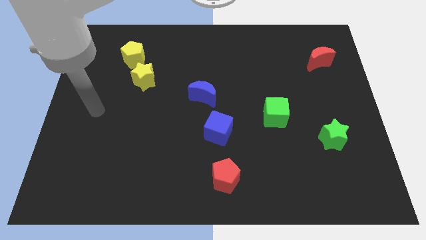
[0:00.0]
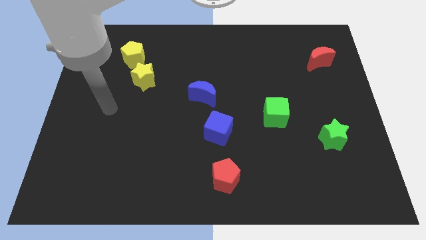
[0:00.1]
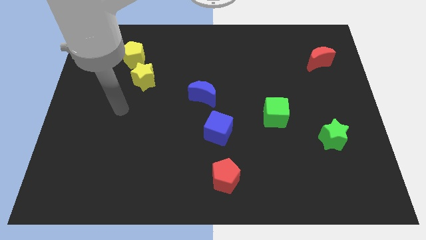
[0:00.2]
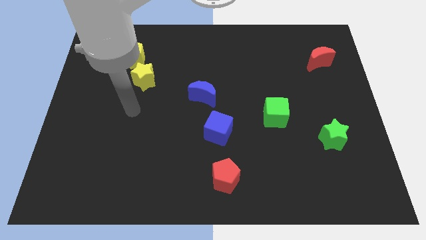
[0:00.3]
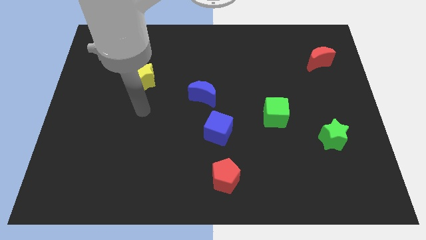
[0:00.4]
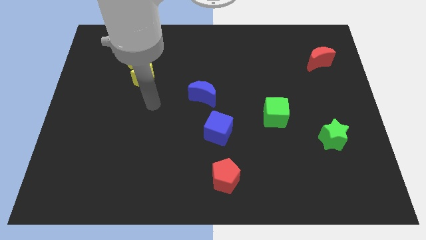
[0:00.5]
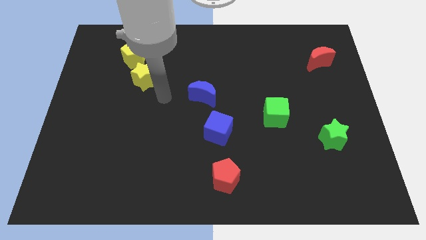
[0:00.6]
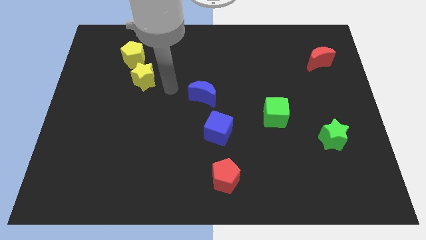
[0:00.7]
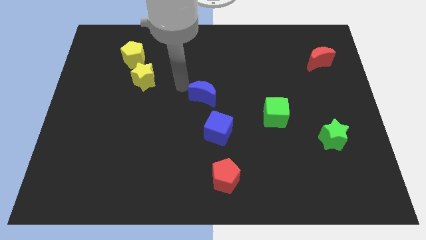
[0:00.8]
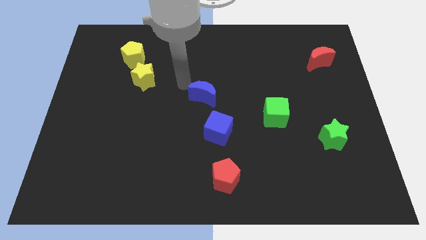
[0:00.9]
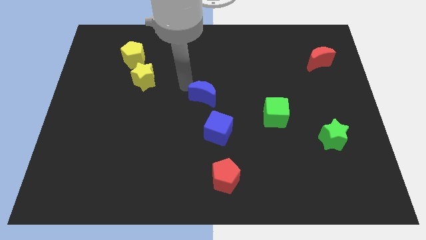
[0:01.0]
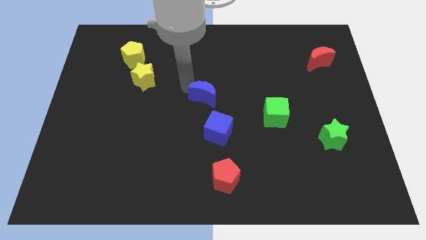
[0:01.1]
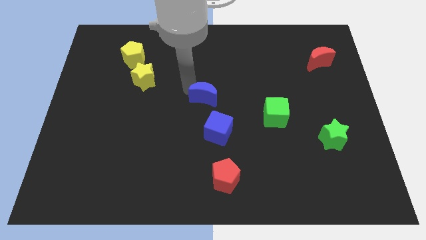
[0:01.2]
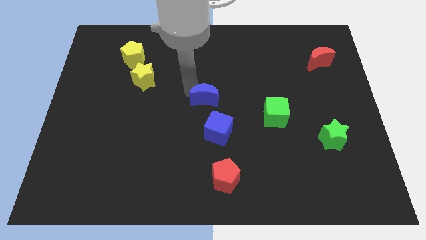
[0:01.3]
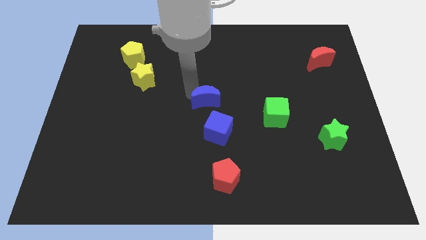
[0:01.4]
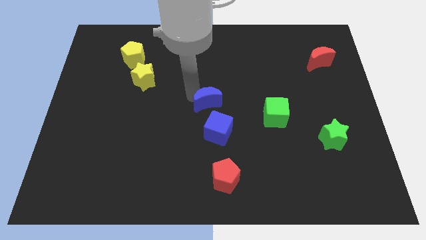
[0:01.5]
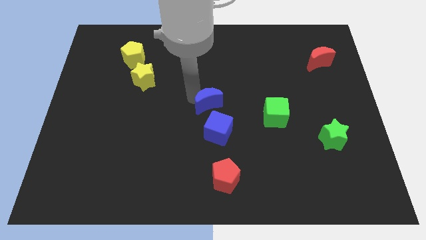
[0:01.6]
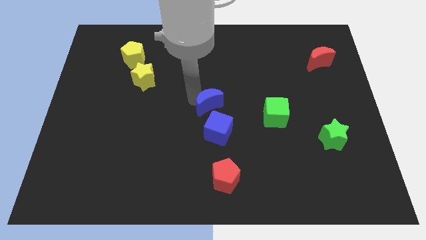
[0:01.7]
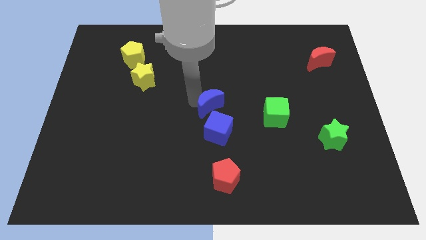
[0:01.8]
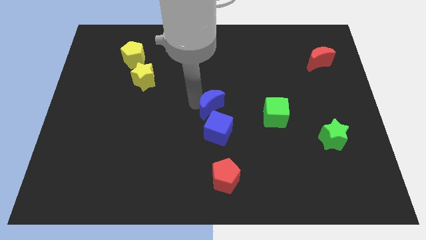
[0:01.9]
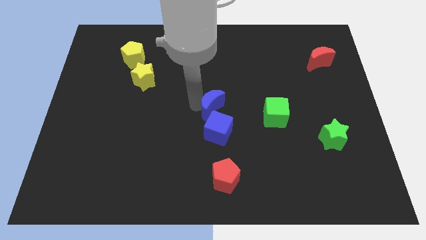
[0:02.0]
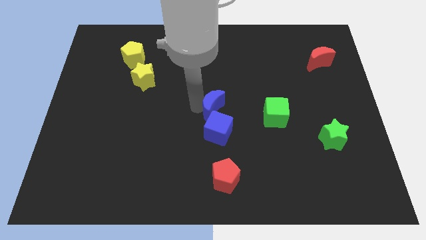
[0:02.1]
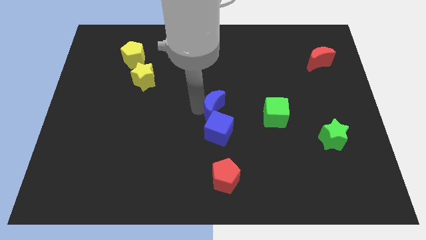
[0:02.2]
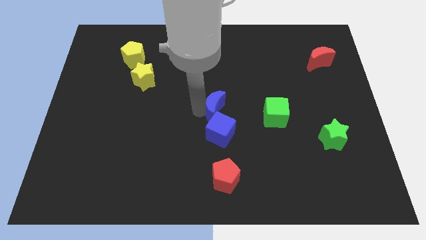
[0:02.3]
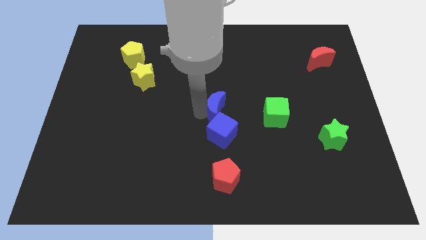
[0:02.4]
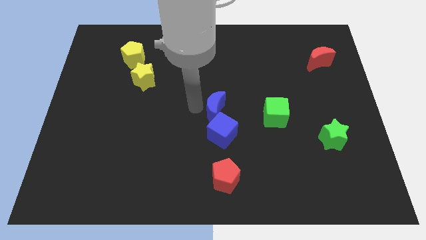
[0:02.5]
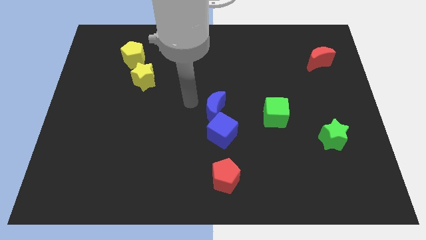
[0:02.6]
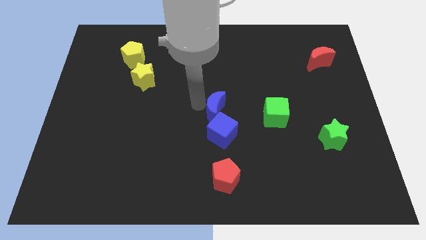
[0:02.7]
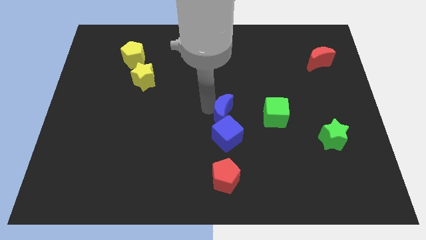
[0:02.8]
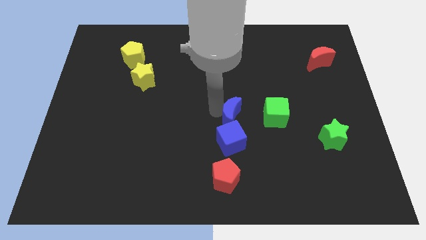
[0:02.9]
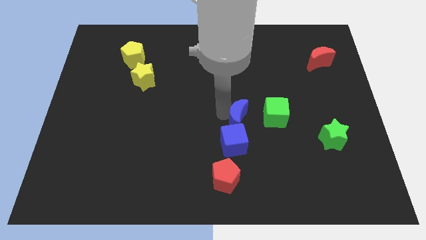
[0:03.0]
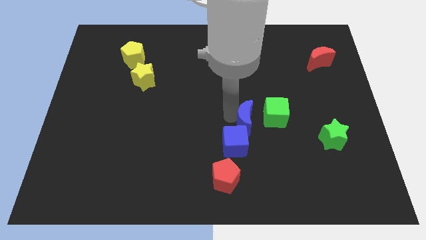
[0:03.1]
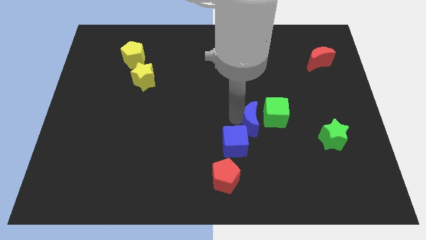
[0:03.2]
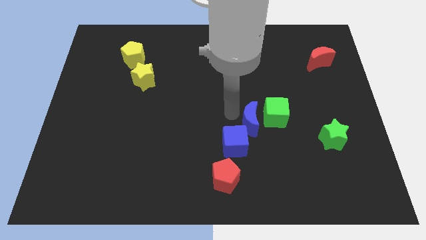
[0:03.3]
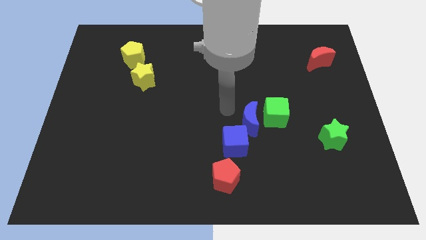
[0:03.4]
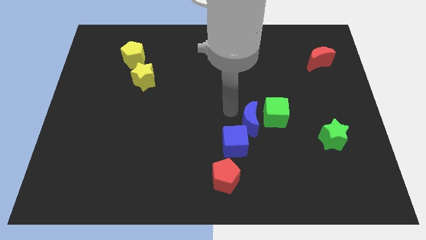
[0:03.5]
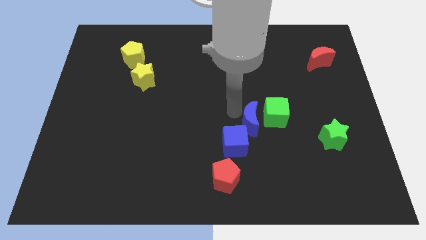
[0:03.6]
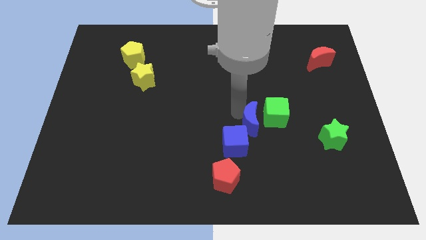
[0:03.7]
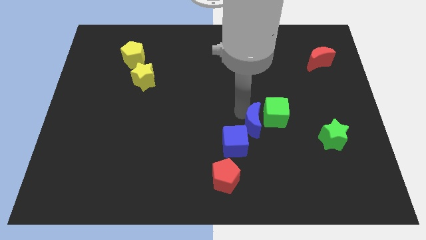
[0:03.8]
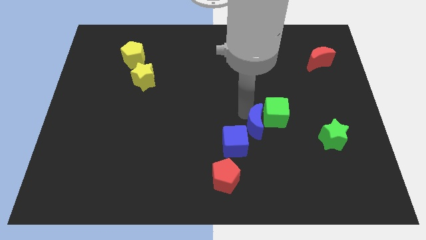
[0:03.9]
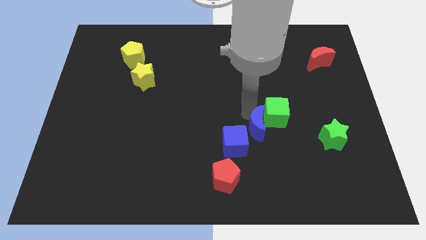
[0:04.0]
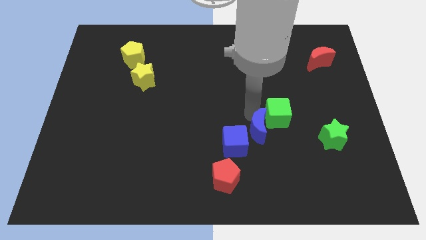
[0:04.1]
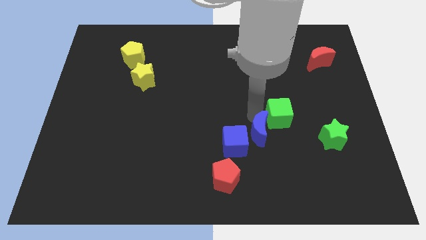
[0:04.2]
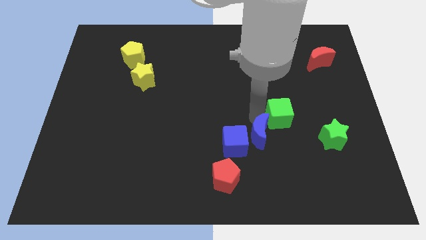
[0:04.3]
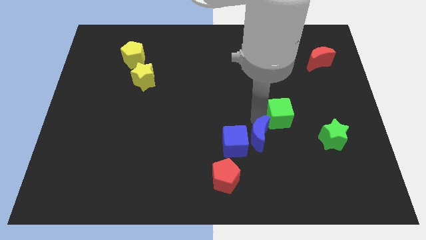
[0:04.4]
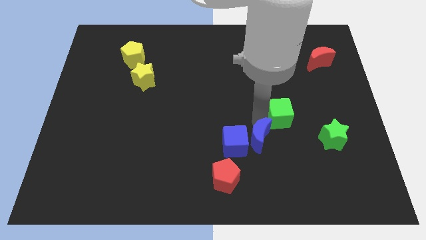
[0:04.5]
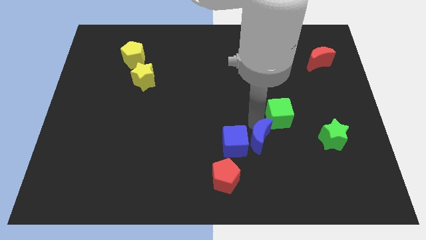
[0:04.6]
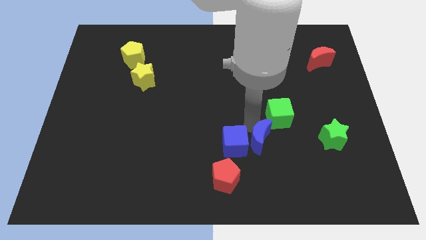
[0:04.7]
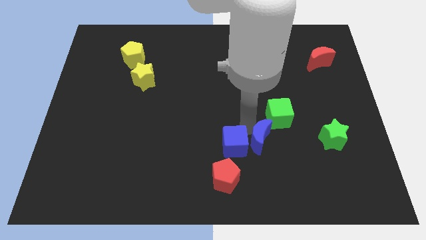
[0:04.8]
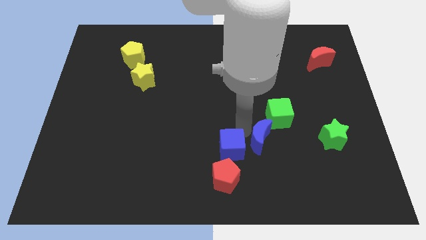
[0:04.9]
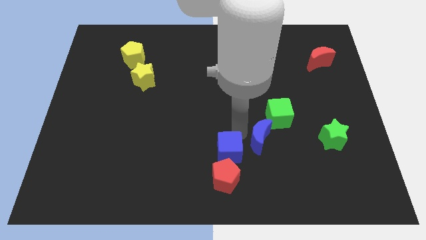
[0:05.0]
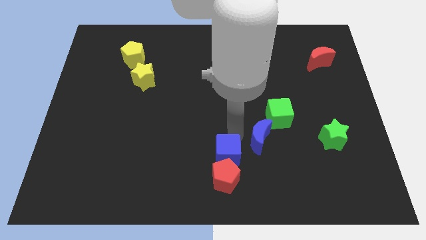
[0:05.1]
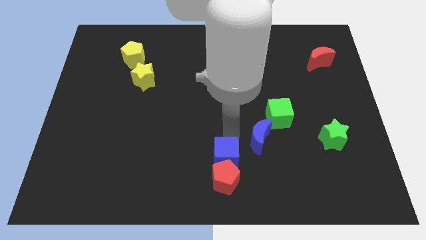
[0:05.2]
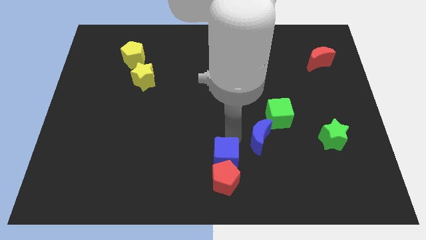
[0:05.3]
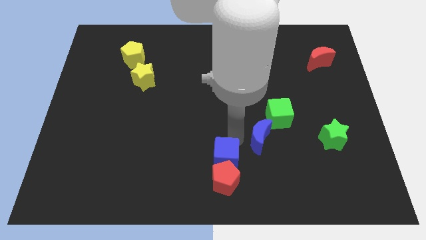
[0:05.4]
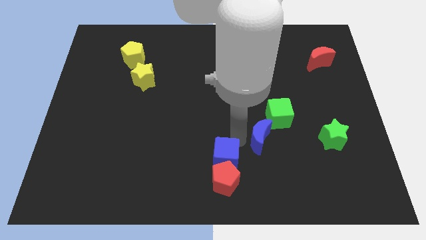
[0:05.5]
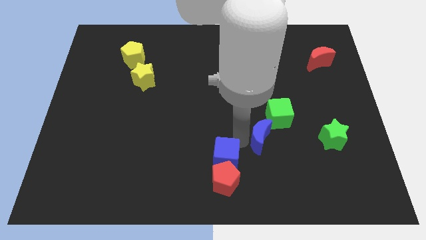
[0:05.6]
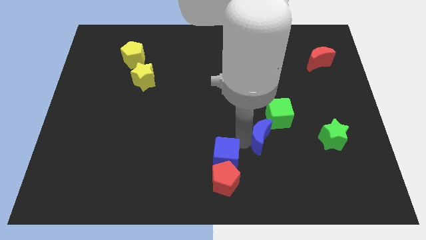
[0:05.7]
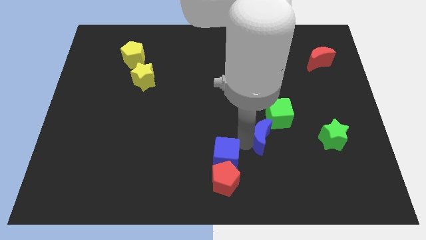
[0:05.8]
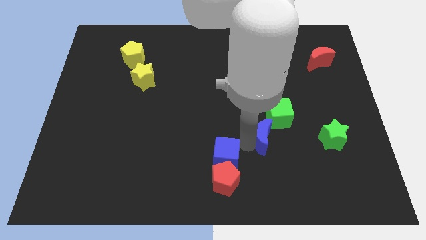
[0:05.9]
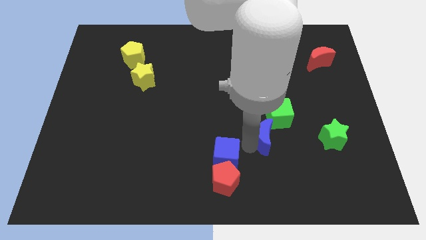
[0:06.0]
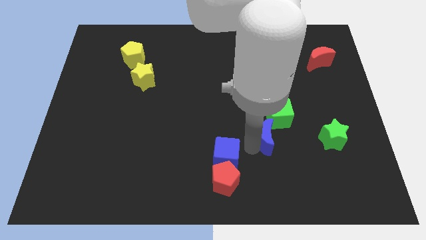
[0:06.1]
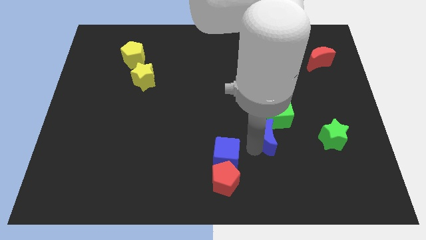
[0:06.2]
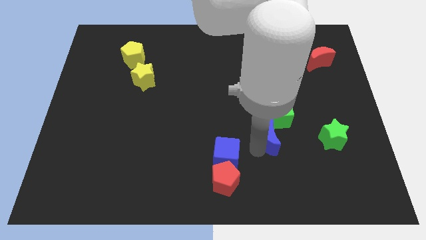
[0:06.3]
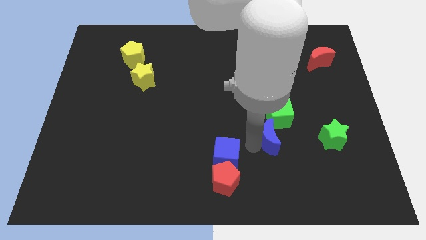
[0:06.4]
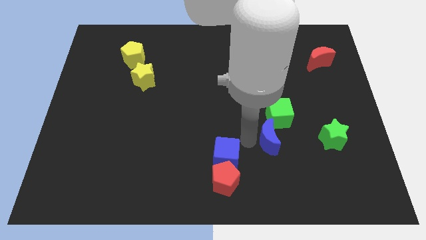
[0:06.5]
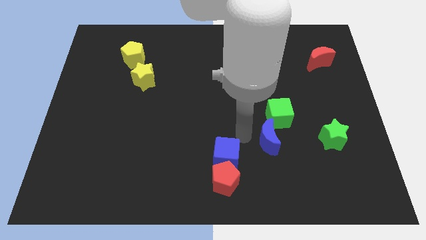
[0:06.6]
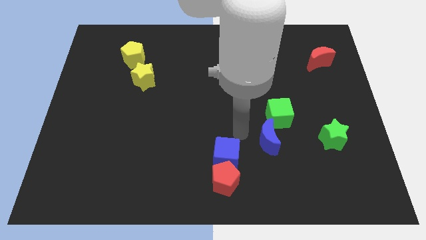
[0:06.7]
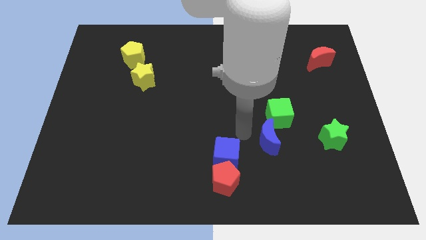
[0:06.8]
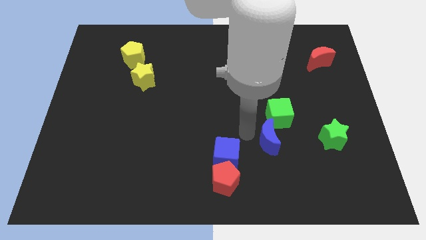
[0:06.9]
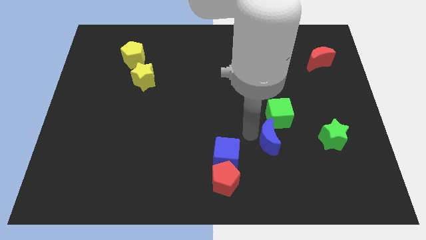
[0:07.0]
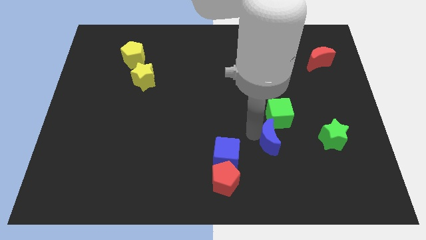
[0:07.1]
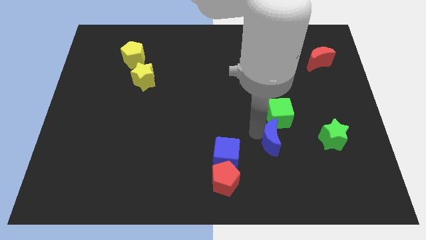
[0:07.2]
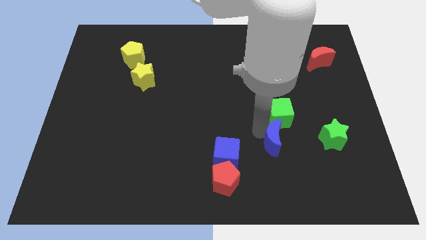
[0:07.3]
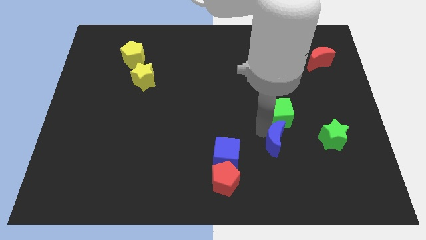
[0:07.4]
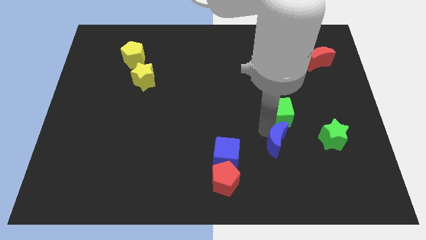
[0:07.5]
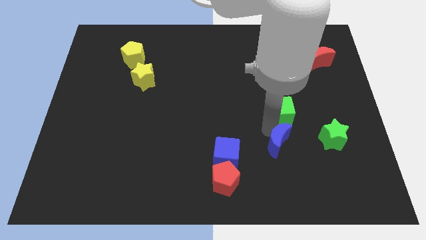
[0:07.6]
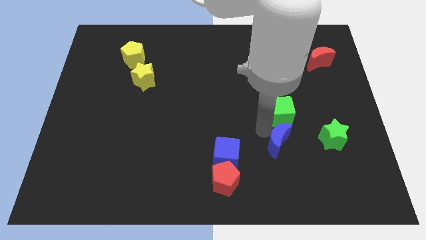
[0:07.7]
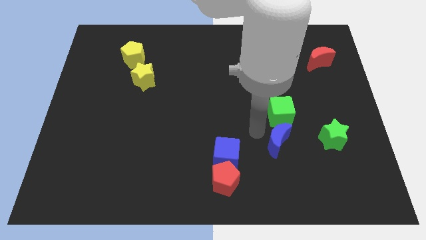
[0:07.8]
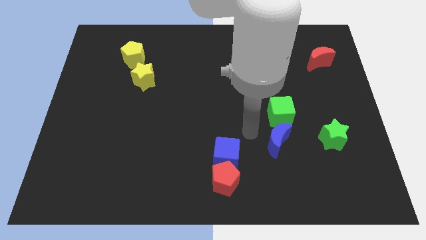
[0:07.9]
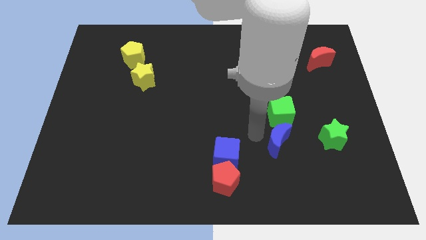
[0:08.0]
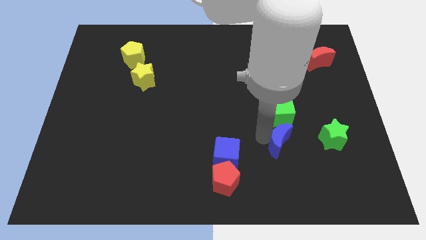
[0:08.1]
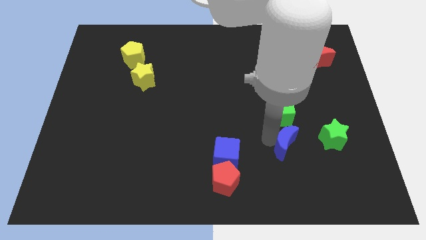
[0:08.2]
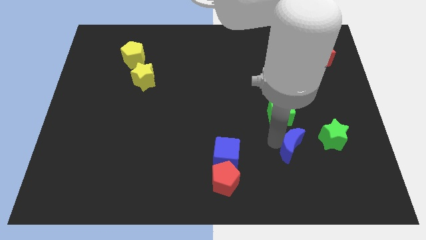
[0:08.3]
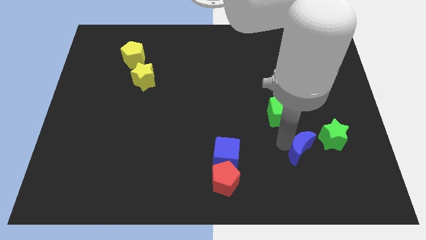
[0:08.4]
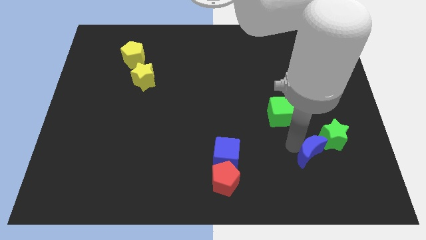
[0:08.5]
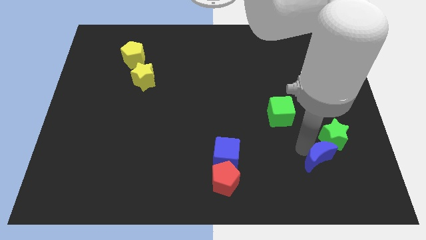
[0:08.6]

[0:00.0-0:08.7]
put the blue moon below the green star
